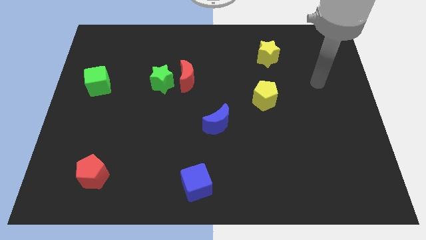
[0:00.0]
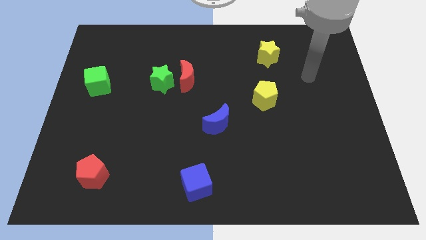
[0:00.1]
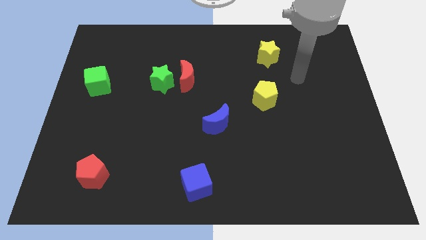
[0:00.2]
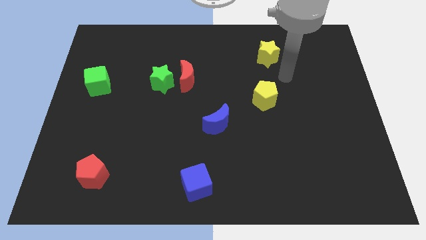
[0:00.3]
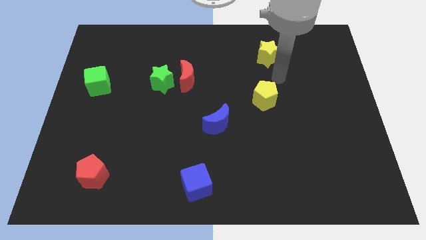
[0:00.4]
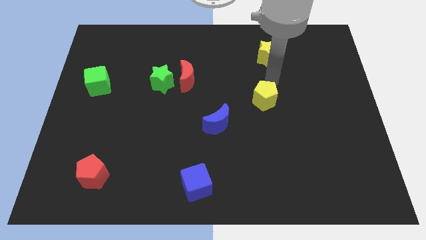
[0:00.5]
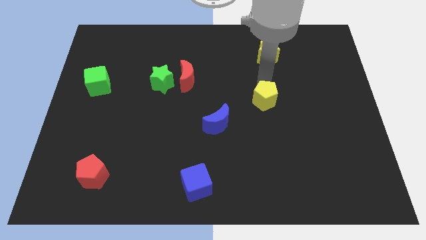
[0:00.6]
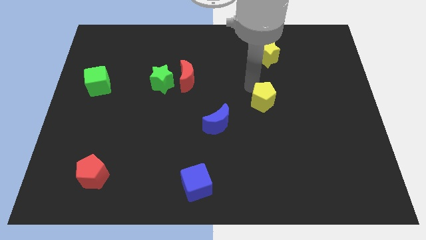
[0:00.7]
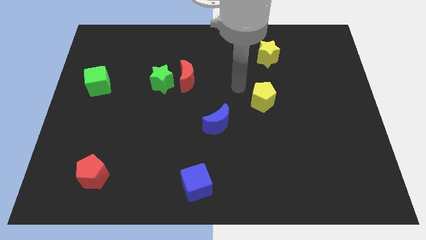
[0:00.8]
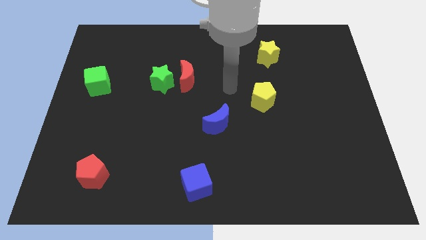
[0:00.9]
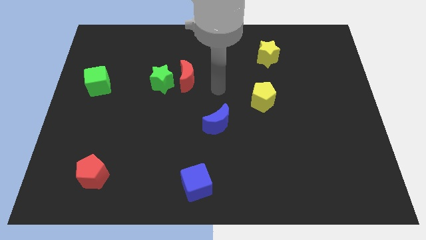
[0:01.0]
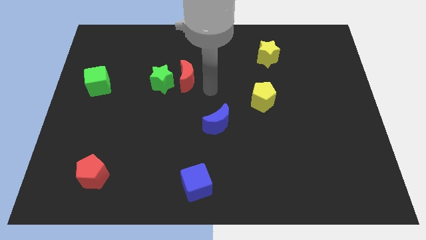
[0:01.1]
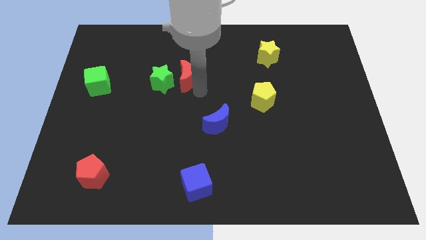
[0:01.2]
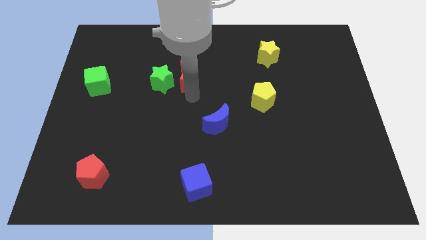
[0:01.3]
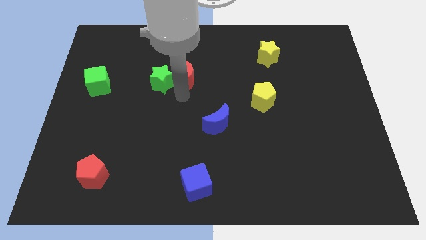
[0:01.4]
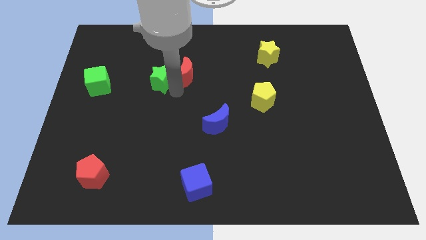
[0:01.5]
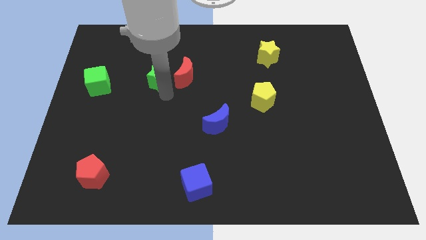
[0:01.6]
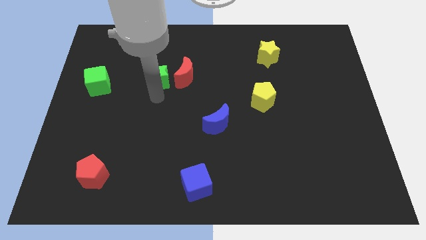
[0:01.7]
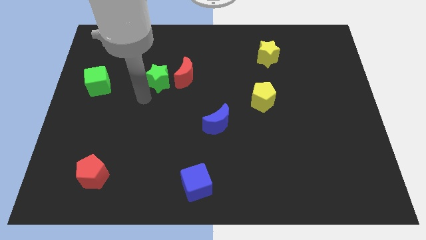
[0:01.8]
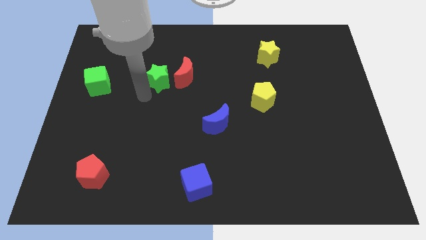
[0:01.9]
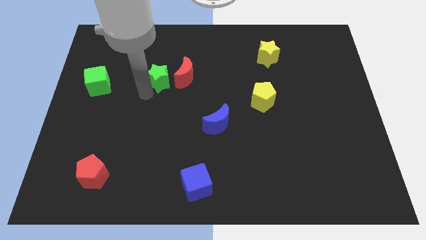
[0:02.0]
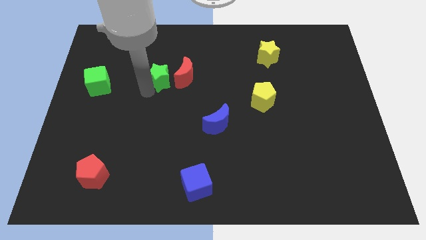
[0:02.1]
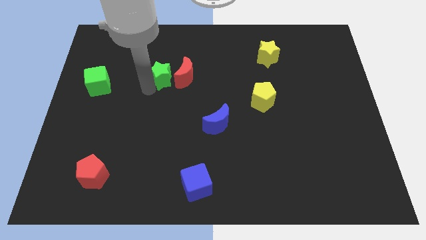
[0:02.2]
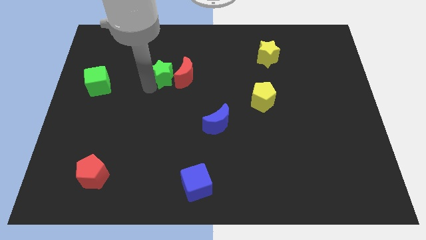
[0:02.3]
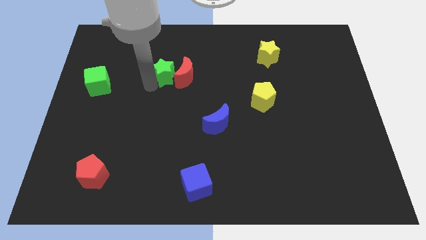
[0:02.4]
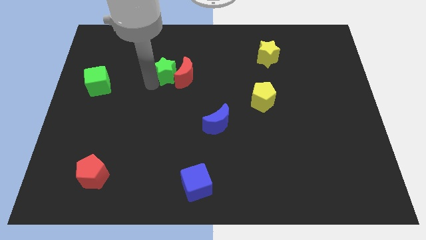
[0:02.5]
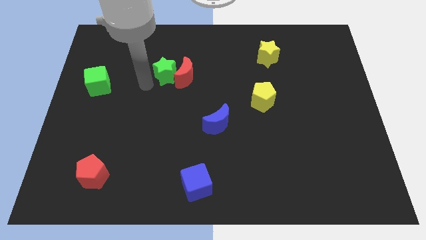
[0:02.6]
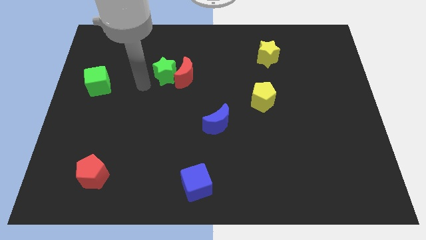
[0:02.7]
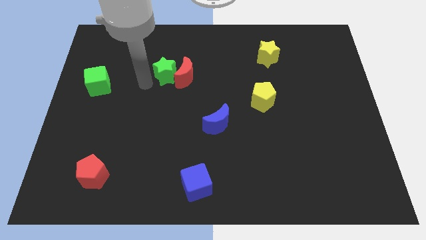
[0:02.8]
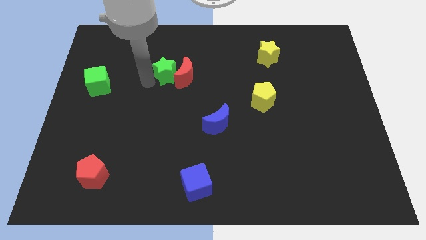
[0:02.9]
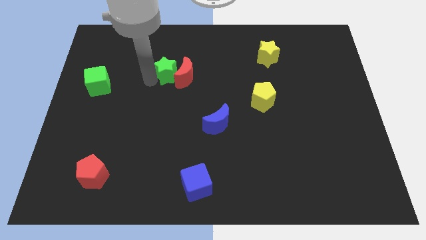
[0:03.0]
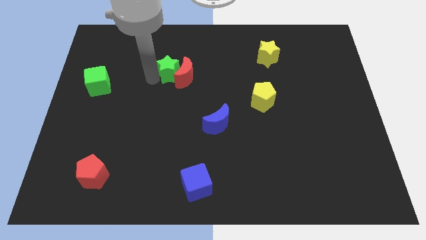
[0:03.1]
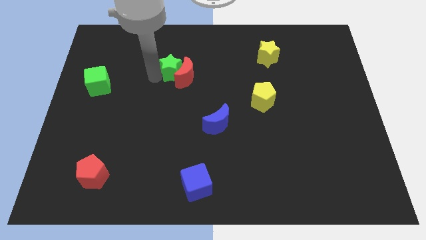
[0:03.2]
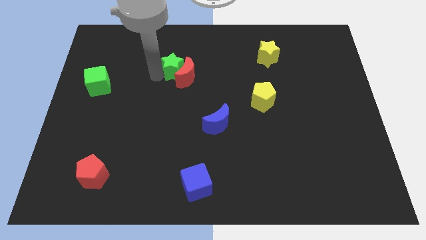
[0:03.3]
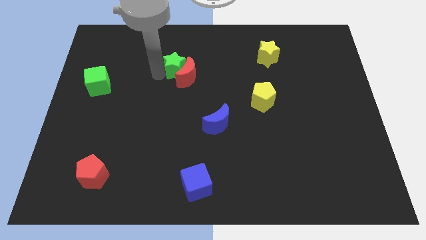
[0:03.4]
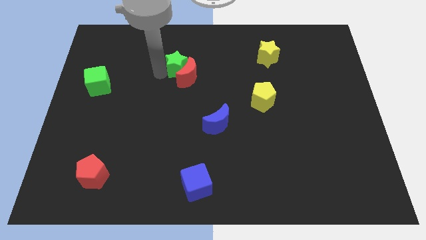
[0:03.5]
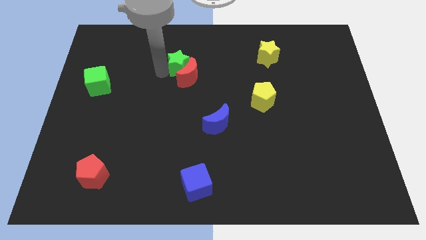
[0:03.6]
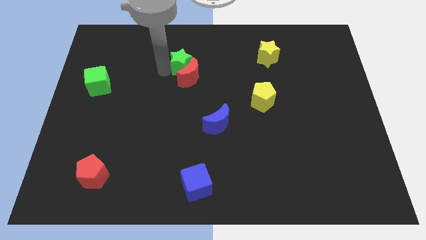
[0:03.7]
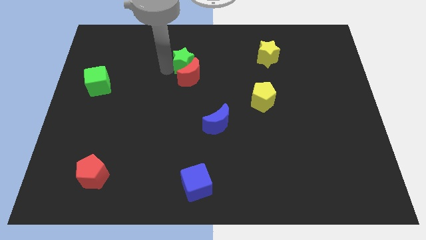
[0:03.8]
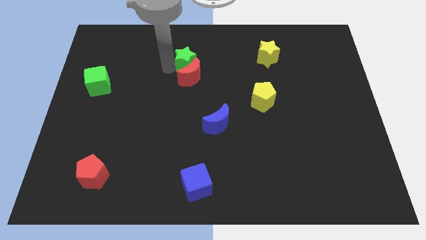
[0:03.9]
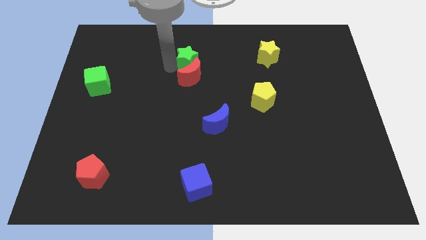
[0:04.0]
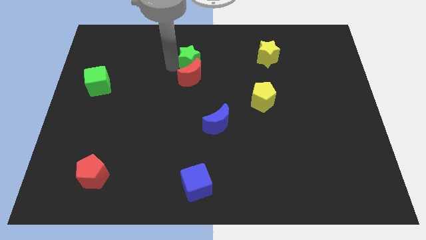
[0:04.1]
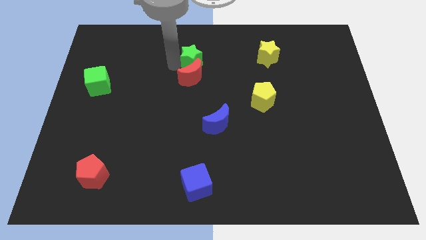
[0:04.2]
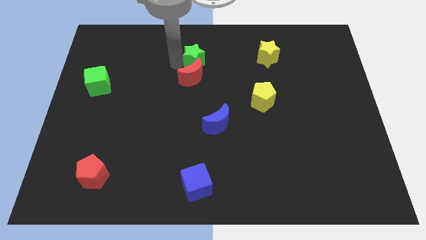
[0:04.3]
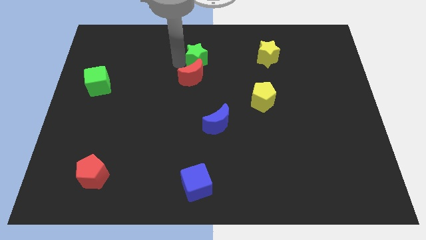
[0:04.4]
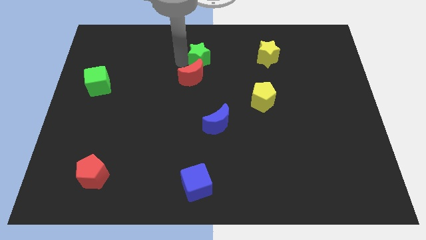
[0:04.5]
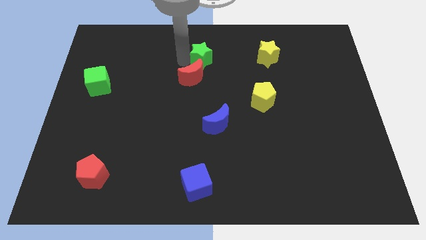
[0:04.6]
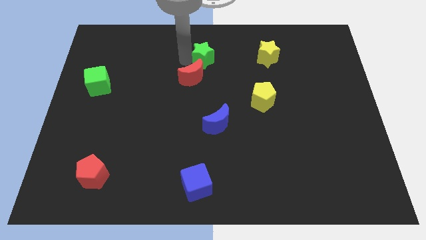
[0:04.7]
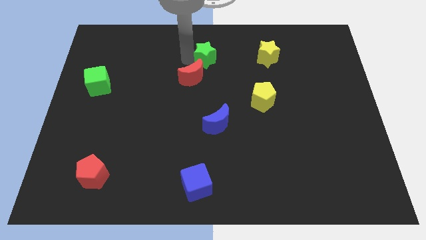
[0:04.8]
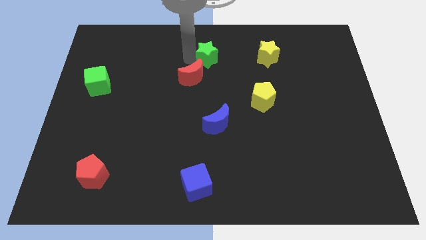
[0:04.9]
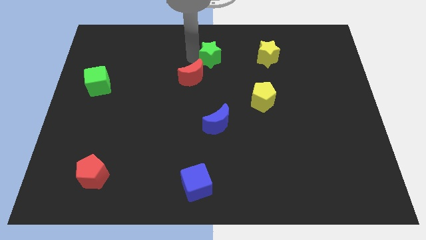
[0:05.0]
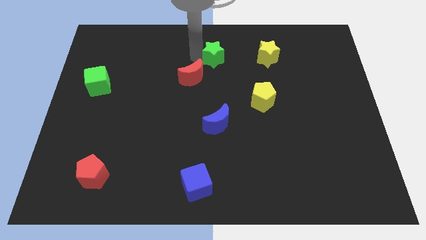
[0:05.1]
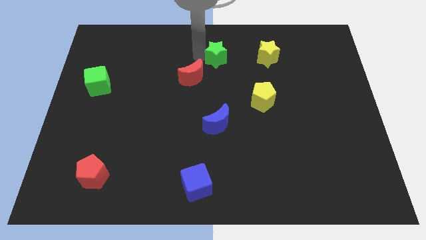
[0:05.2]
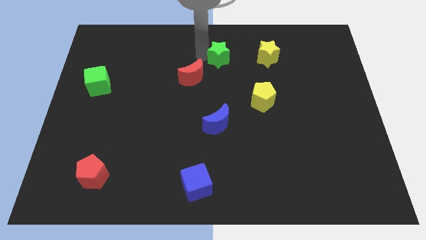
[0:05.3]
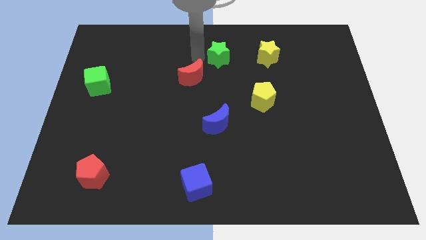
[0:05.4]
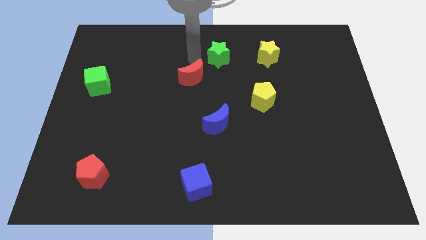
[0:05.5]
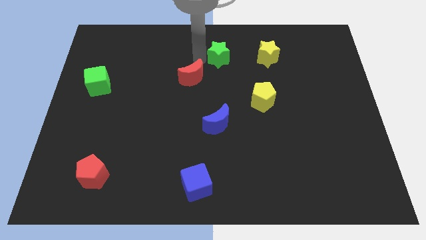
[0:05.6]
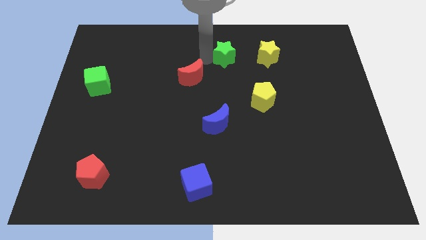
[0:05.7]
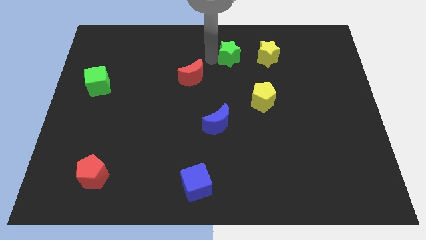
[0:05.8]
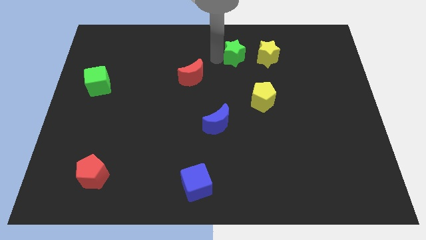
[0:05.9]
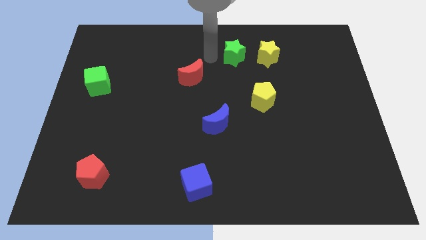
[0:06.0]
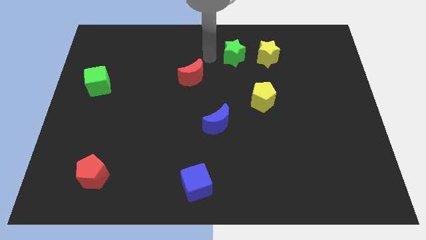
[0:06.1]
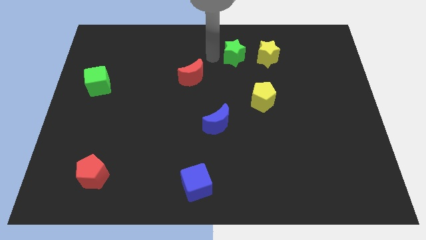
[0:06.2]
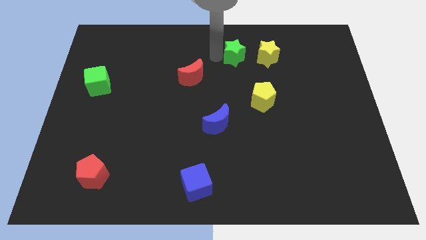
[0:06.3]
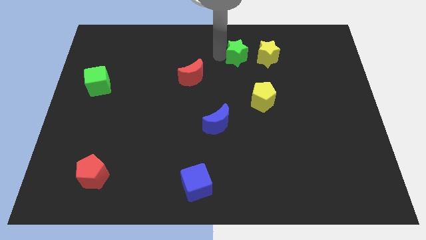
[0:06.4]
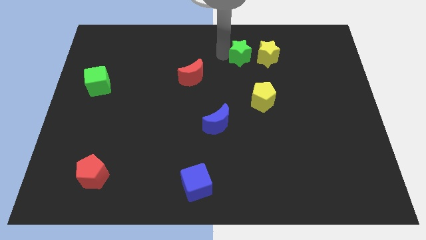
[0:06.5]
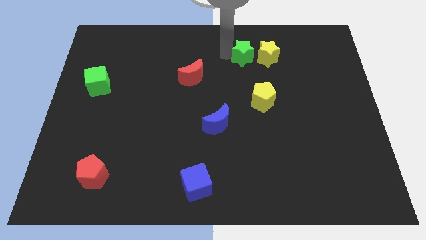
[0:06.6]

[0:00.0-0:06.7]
move the green star to the yellow star

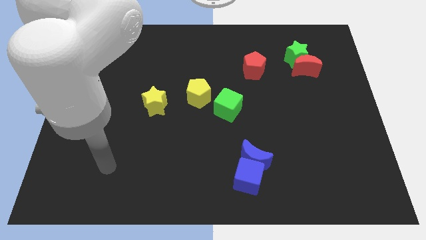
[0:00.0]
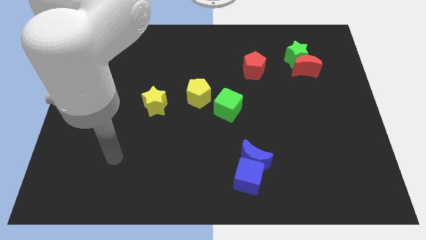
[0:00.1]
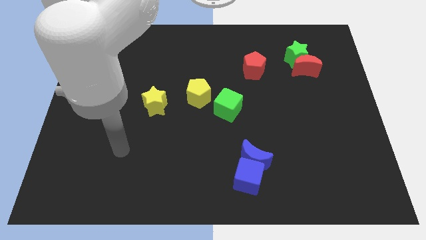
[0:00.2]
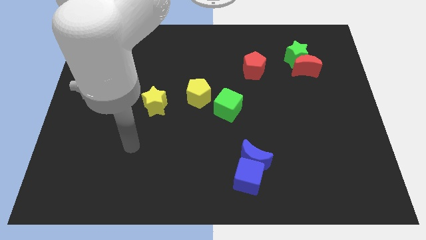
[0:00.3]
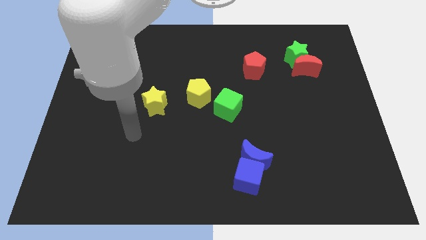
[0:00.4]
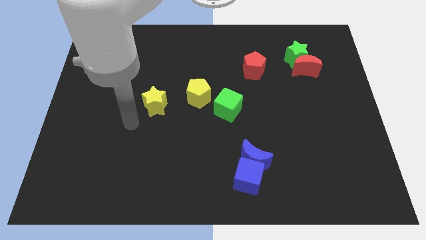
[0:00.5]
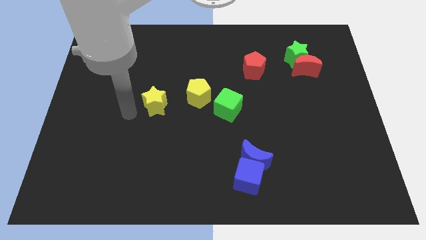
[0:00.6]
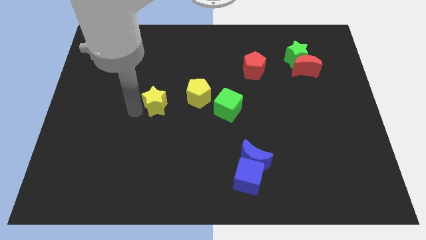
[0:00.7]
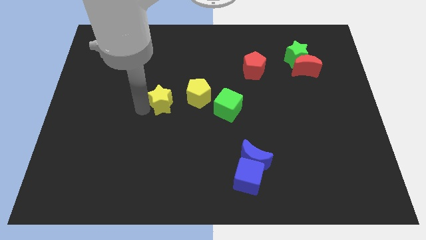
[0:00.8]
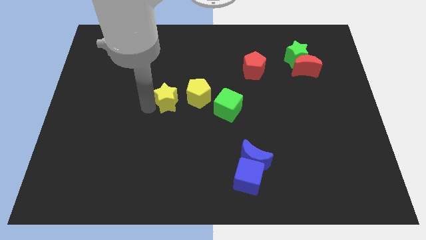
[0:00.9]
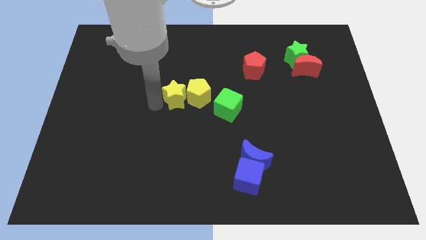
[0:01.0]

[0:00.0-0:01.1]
move the yellow star next to the yellow pentagon
